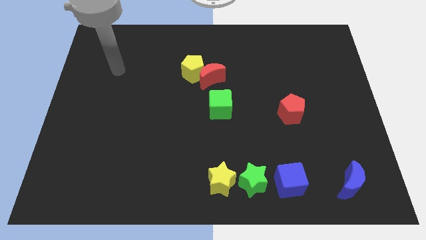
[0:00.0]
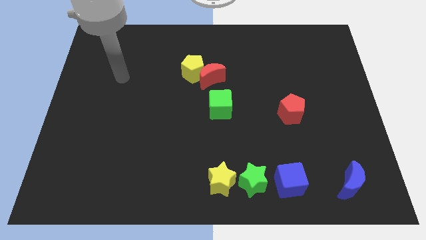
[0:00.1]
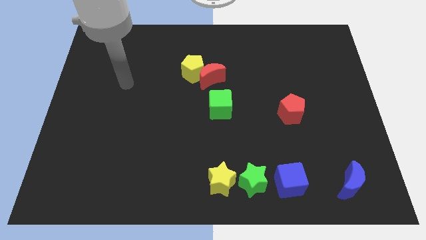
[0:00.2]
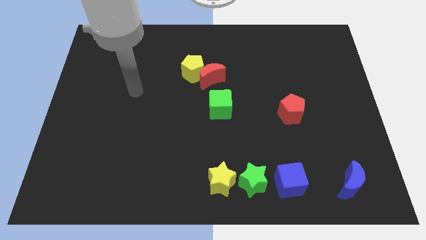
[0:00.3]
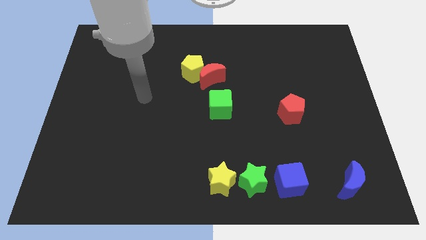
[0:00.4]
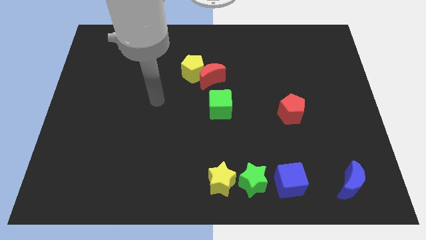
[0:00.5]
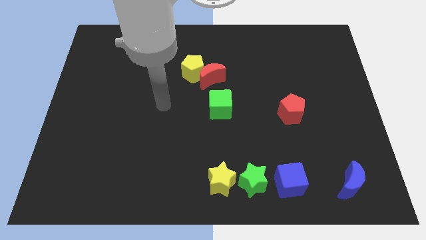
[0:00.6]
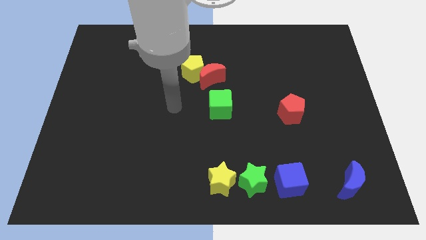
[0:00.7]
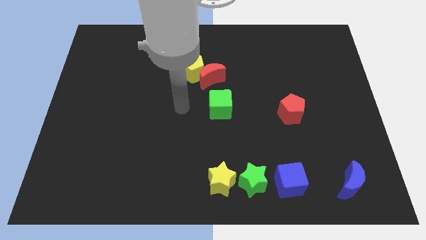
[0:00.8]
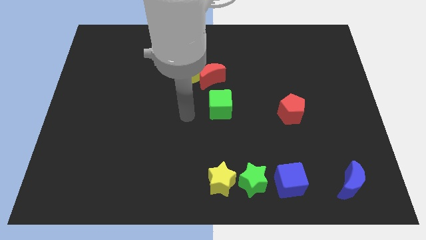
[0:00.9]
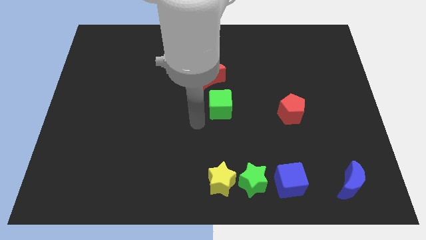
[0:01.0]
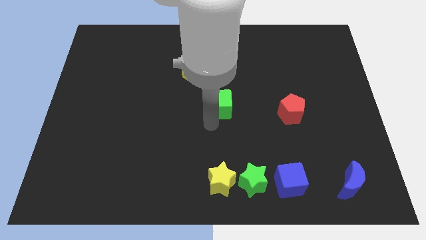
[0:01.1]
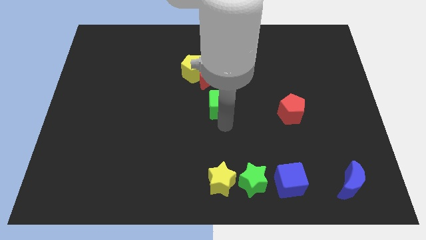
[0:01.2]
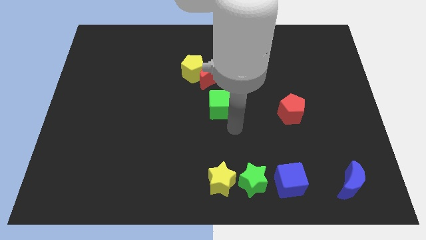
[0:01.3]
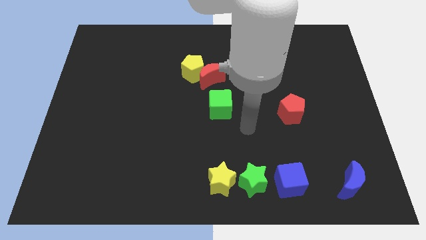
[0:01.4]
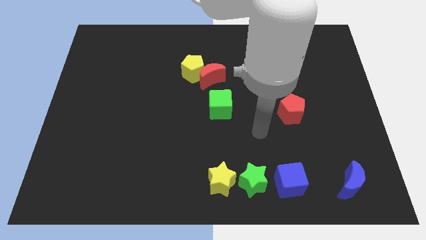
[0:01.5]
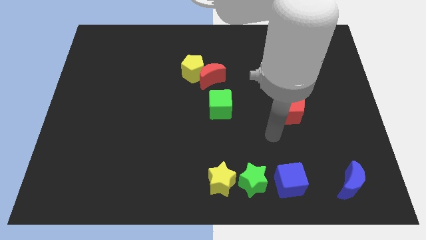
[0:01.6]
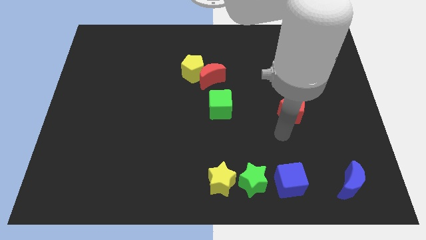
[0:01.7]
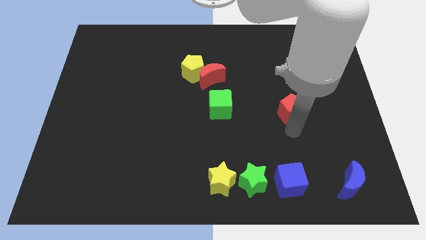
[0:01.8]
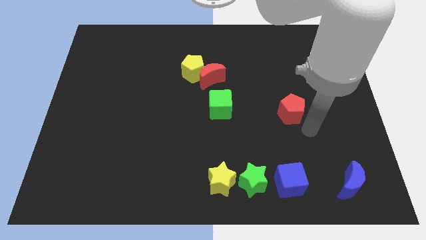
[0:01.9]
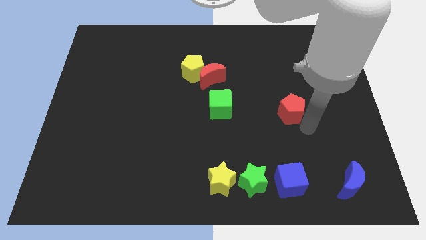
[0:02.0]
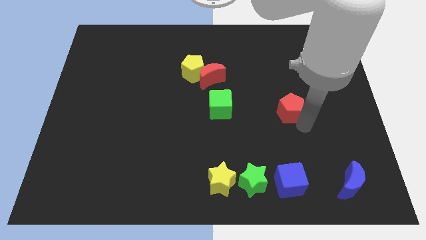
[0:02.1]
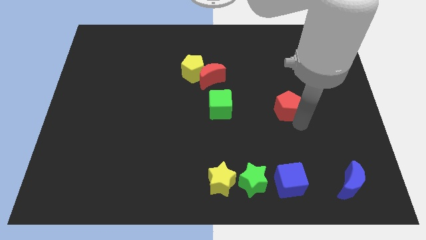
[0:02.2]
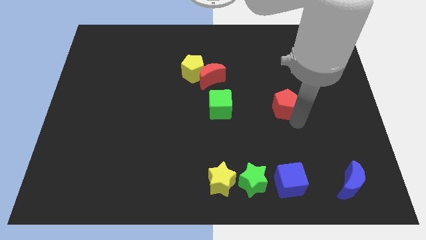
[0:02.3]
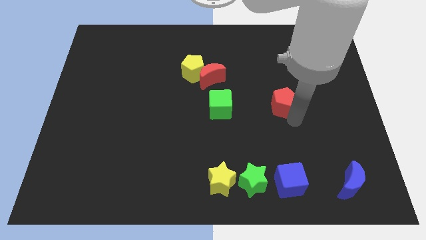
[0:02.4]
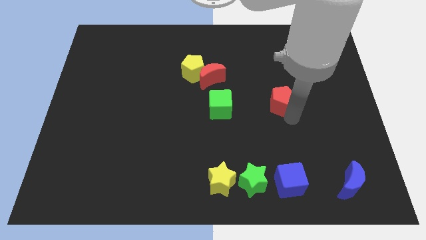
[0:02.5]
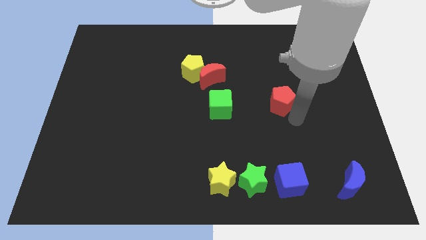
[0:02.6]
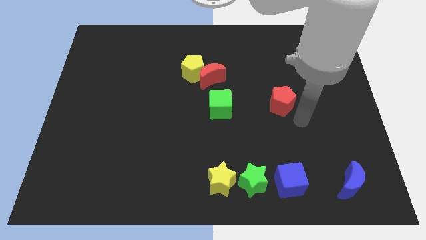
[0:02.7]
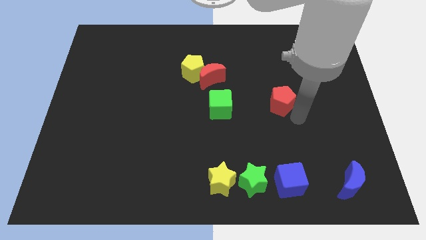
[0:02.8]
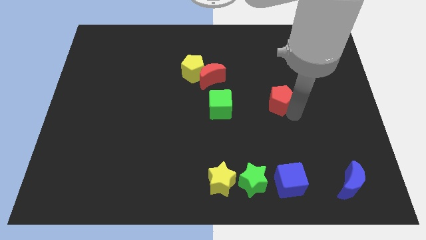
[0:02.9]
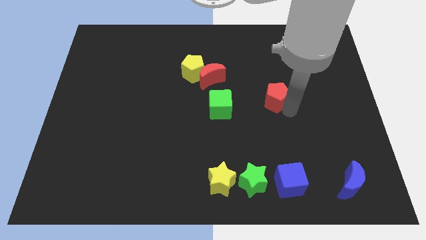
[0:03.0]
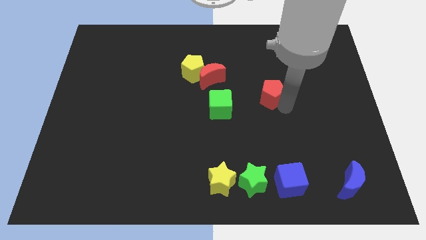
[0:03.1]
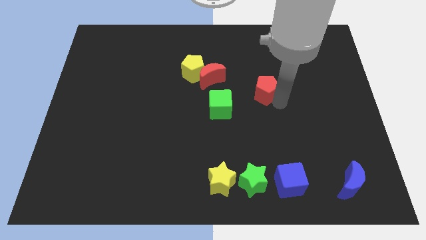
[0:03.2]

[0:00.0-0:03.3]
move the red pentagon upwards and then to the left a little

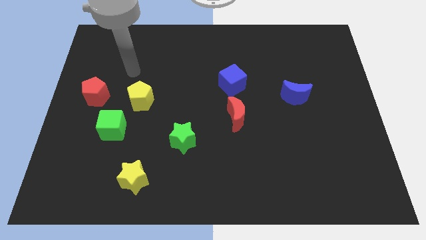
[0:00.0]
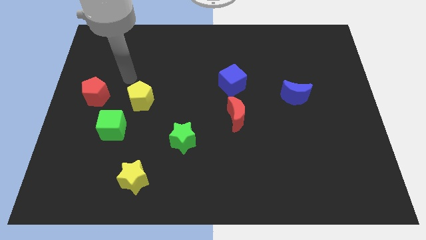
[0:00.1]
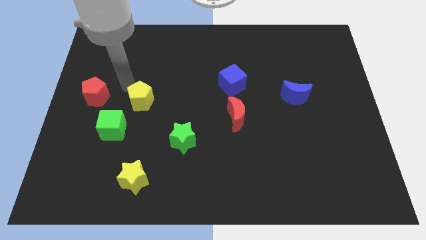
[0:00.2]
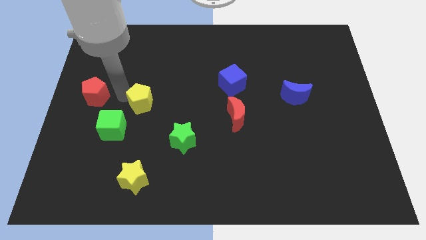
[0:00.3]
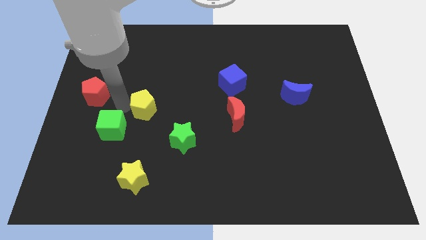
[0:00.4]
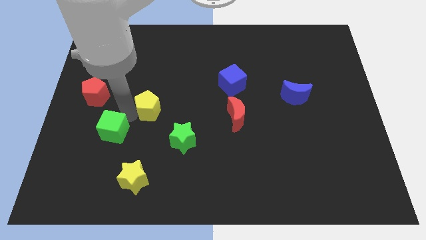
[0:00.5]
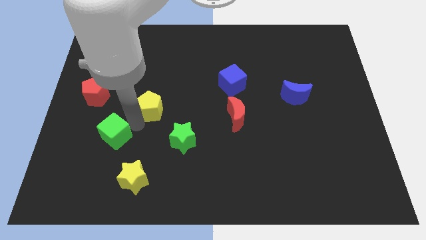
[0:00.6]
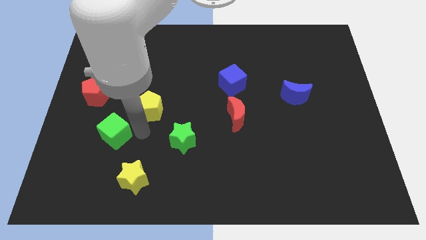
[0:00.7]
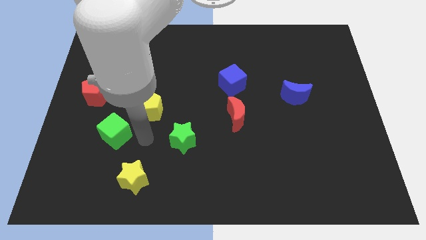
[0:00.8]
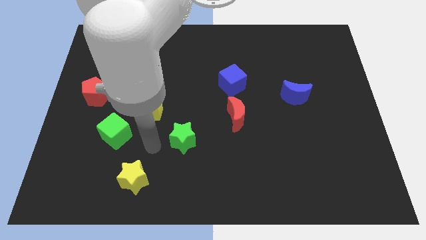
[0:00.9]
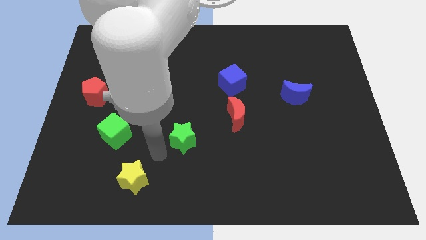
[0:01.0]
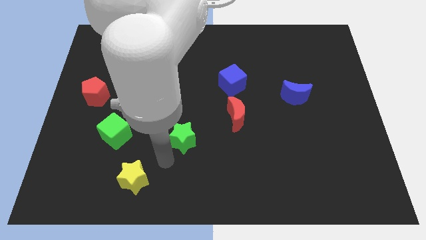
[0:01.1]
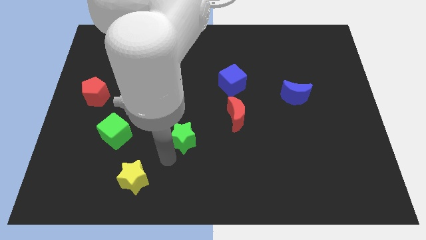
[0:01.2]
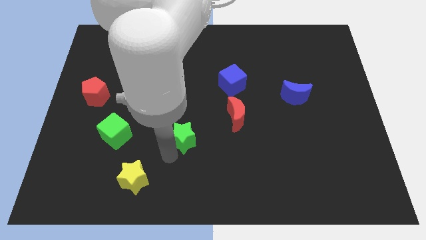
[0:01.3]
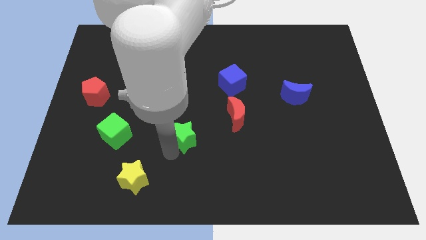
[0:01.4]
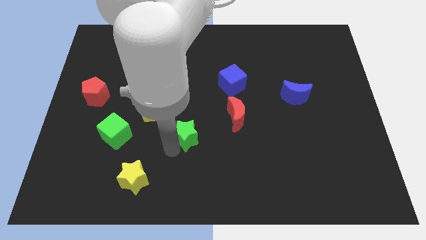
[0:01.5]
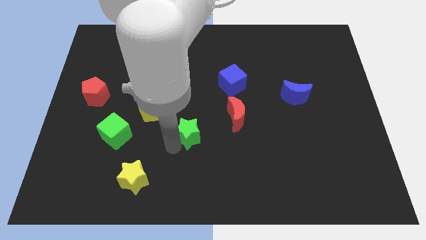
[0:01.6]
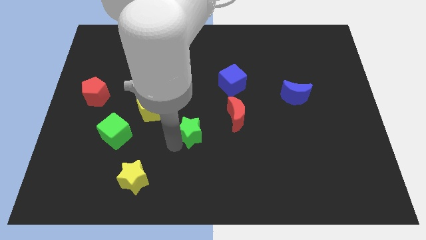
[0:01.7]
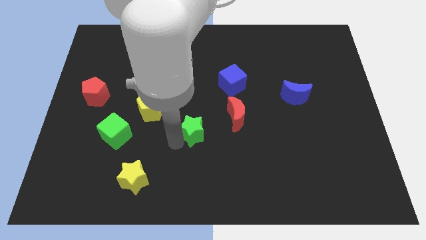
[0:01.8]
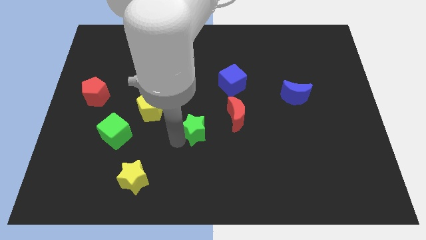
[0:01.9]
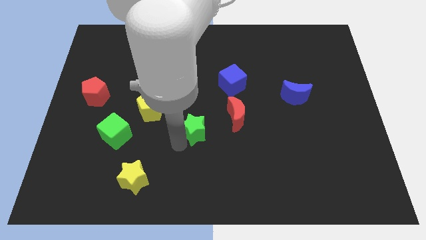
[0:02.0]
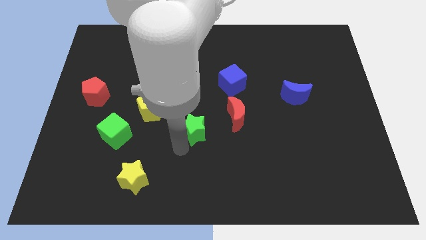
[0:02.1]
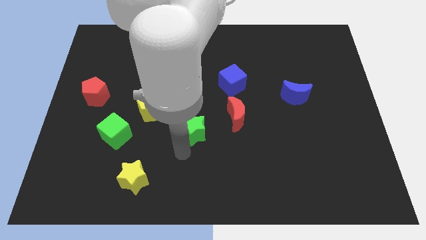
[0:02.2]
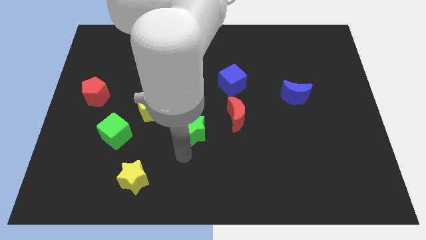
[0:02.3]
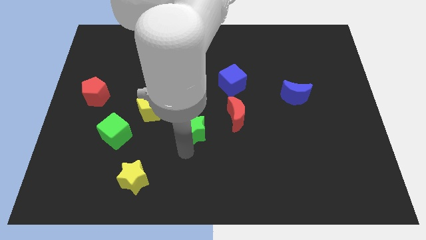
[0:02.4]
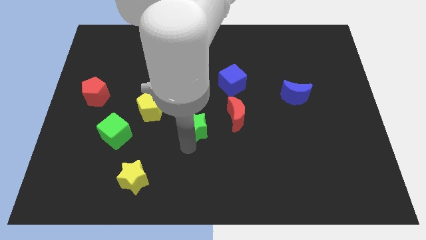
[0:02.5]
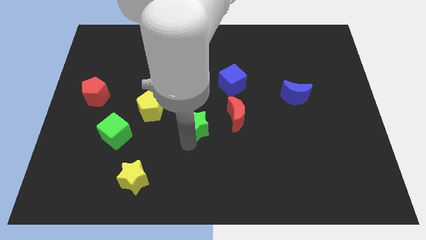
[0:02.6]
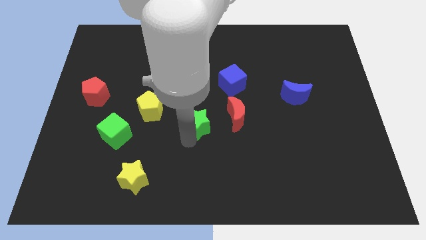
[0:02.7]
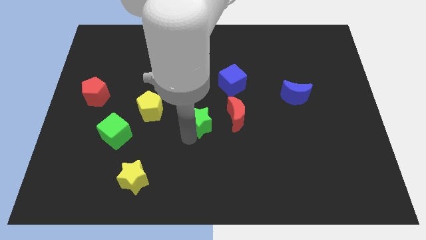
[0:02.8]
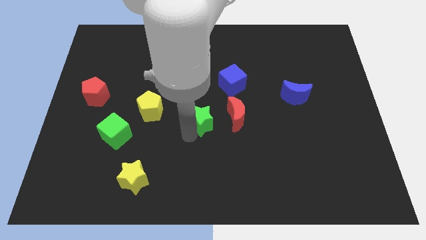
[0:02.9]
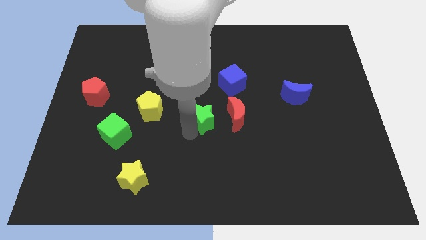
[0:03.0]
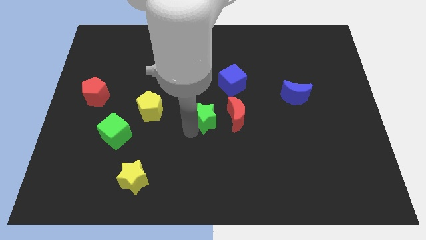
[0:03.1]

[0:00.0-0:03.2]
slide the green star upwards and to the right a little bit

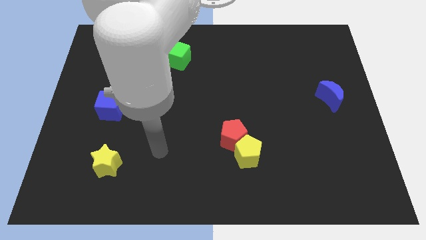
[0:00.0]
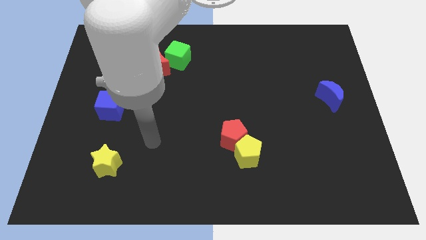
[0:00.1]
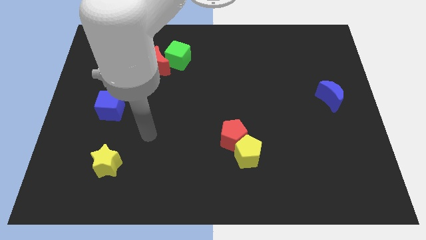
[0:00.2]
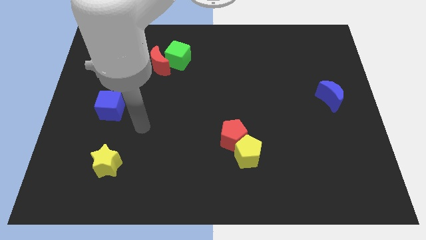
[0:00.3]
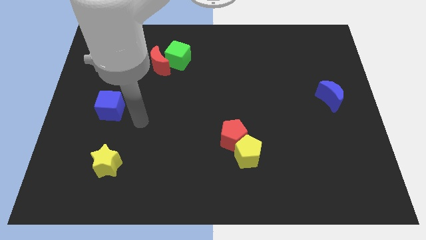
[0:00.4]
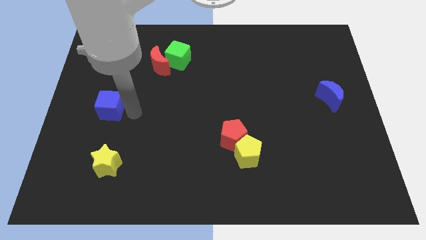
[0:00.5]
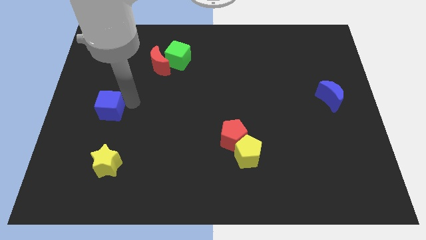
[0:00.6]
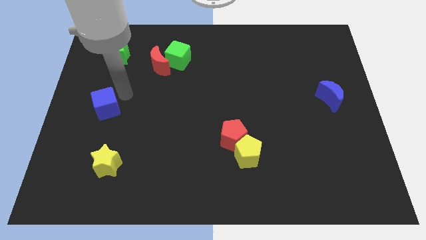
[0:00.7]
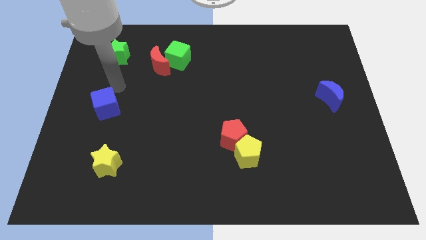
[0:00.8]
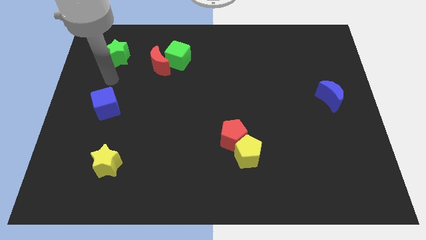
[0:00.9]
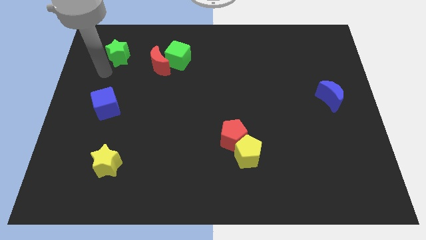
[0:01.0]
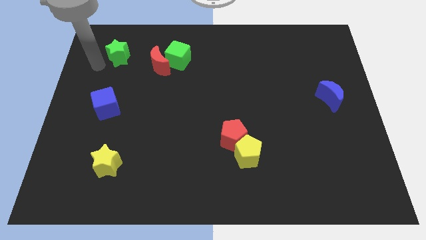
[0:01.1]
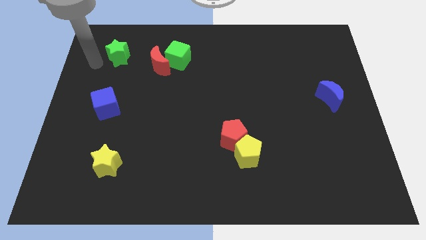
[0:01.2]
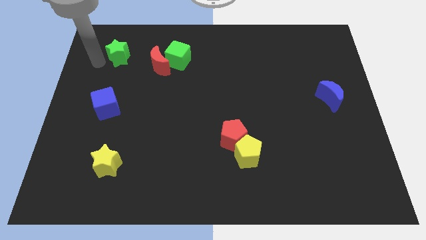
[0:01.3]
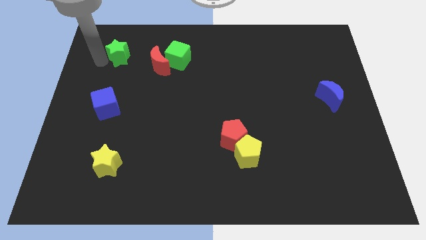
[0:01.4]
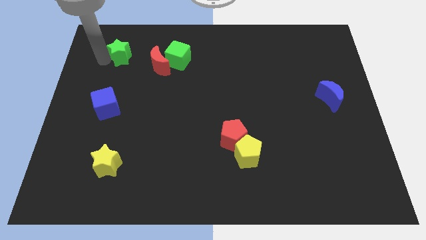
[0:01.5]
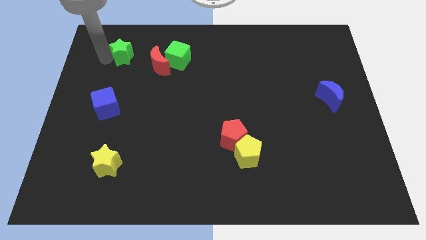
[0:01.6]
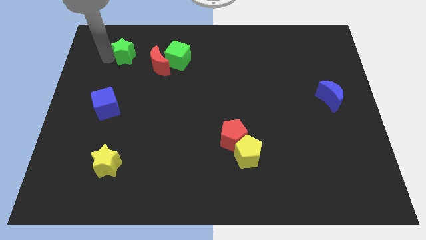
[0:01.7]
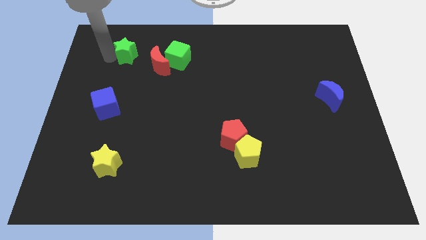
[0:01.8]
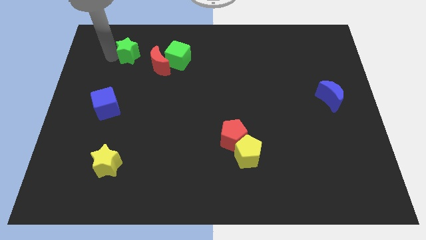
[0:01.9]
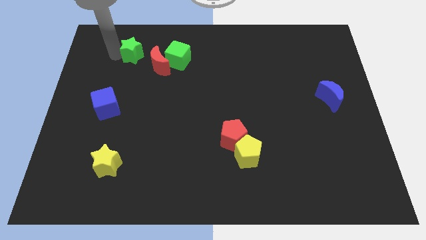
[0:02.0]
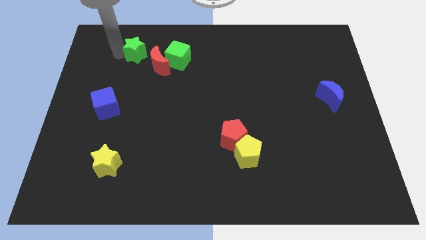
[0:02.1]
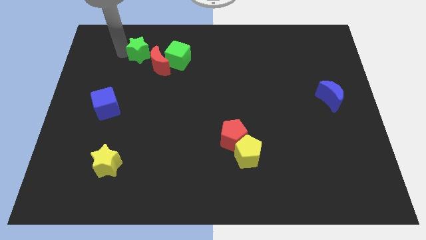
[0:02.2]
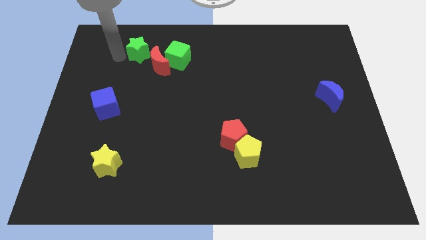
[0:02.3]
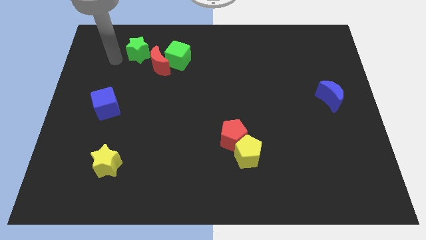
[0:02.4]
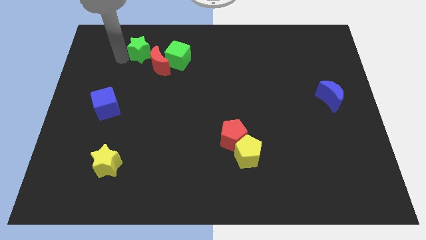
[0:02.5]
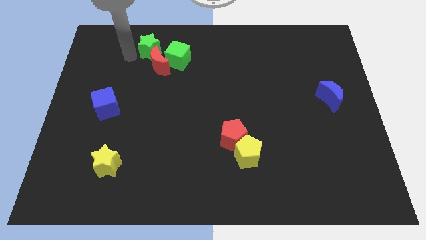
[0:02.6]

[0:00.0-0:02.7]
move the green star a little bit right
